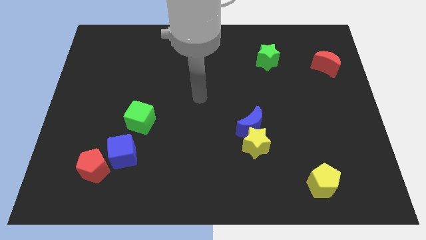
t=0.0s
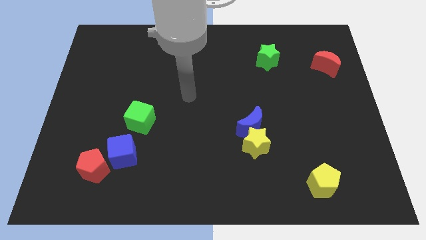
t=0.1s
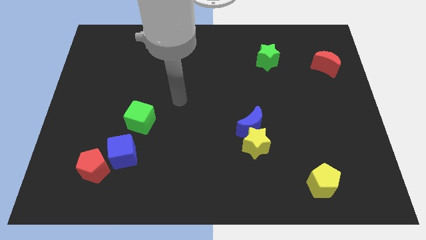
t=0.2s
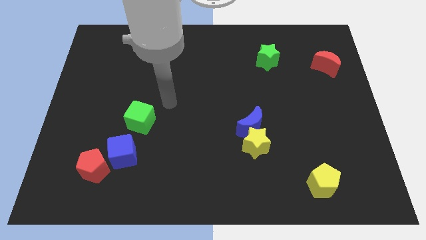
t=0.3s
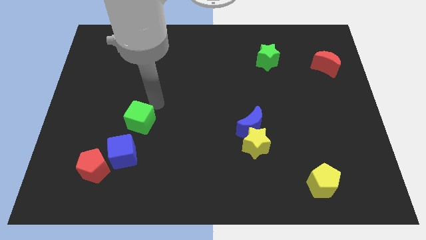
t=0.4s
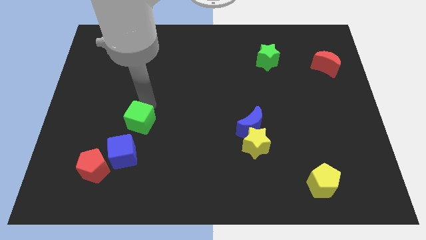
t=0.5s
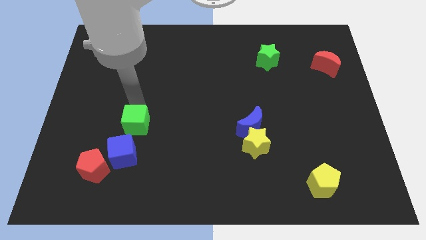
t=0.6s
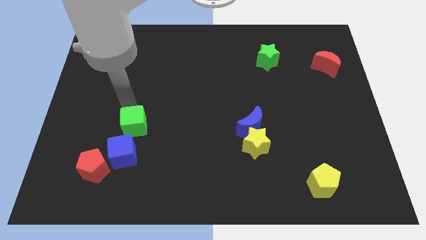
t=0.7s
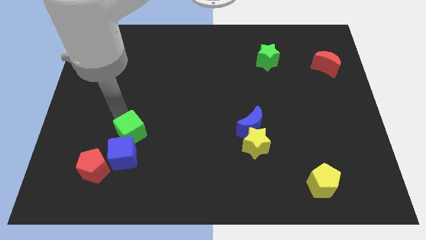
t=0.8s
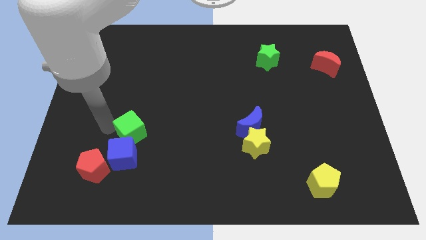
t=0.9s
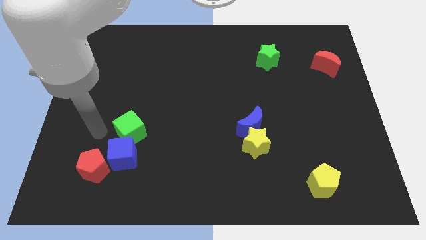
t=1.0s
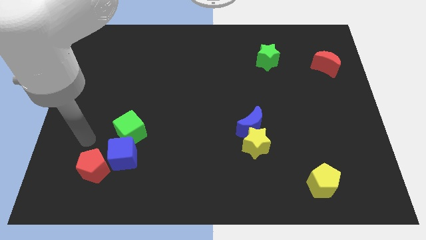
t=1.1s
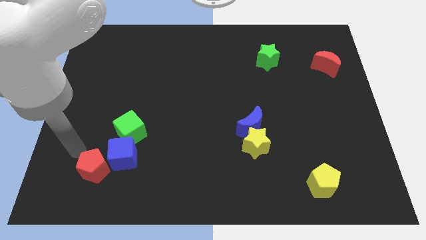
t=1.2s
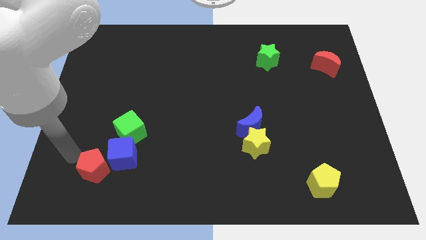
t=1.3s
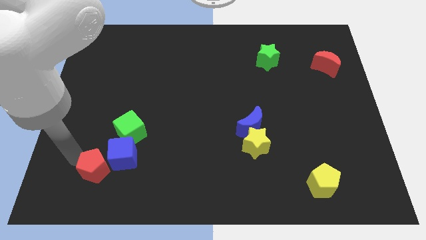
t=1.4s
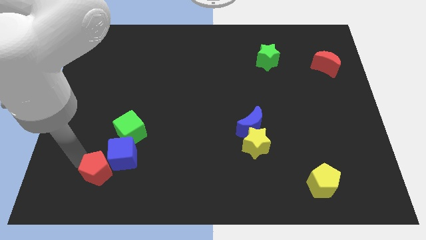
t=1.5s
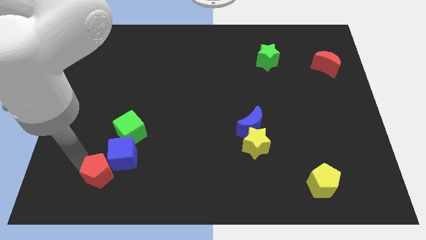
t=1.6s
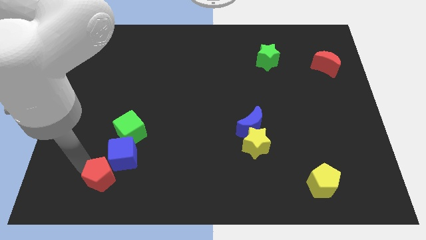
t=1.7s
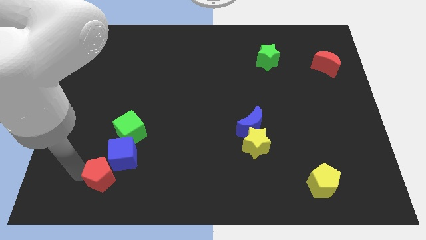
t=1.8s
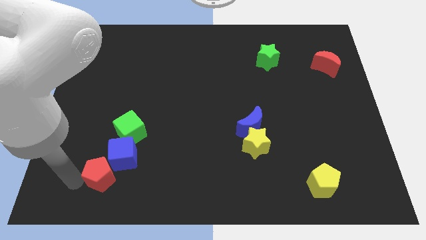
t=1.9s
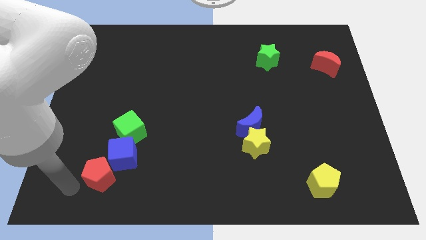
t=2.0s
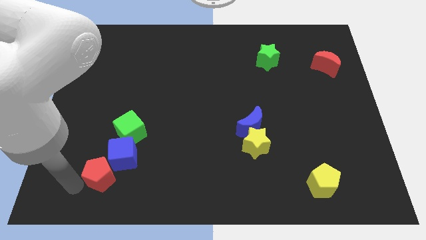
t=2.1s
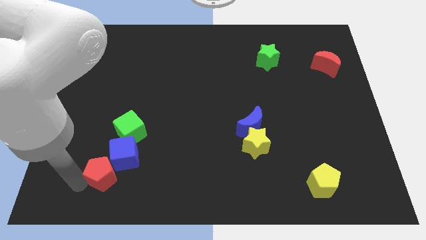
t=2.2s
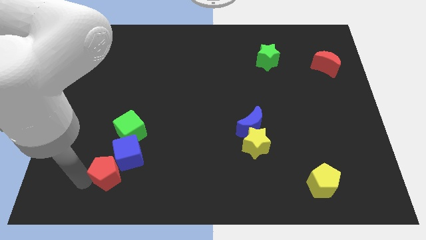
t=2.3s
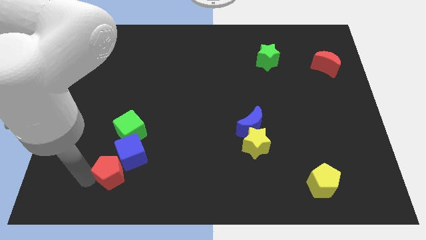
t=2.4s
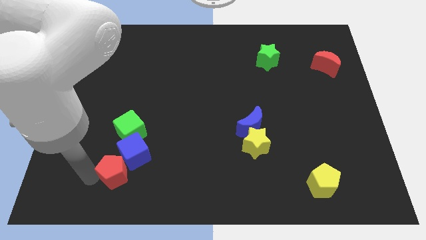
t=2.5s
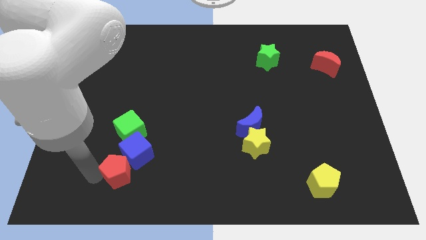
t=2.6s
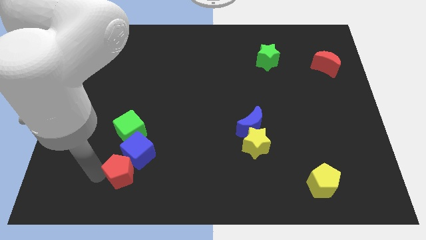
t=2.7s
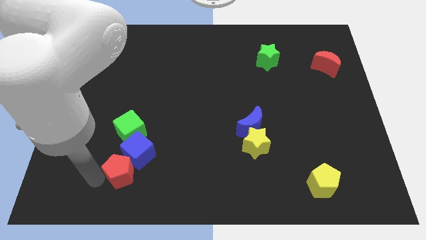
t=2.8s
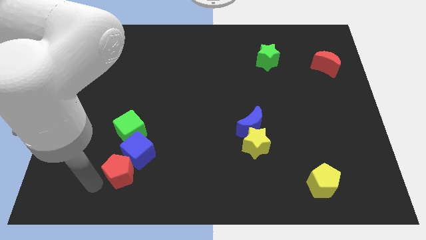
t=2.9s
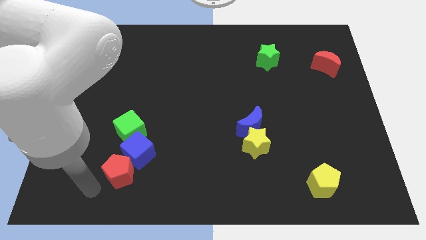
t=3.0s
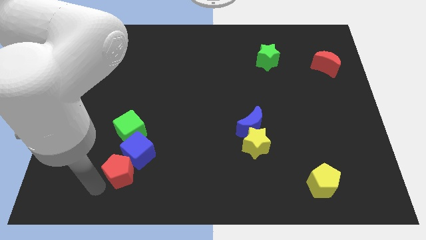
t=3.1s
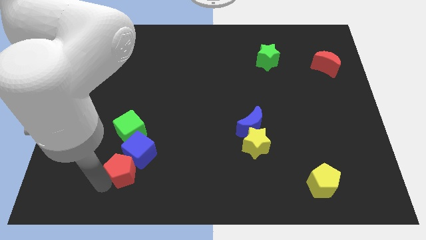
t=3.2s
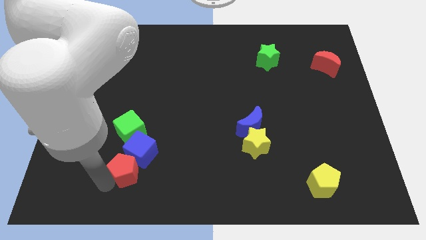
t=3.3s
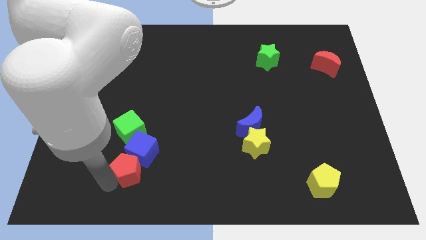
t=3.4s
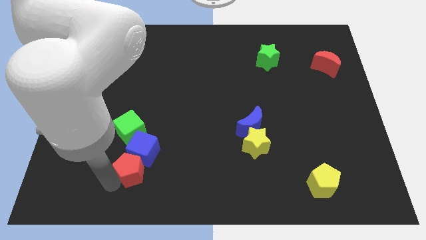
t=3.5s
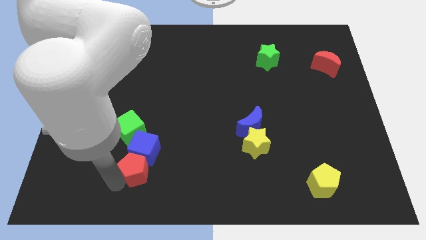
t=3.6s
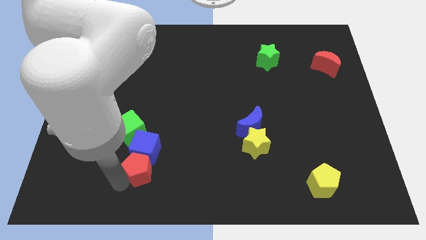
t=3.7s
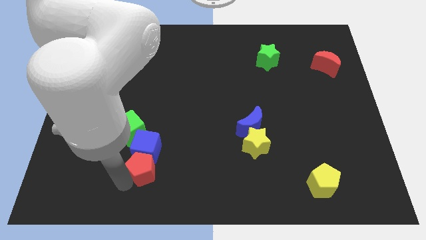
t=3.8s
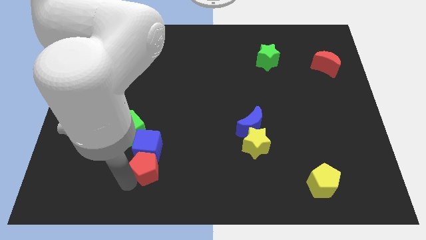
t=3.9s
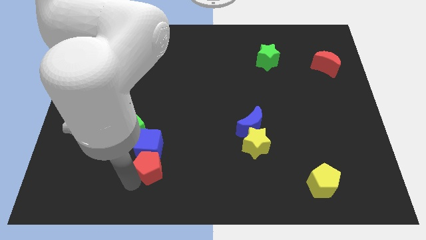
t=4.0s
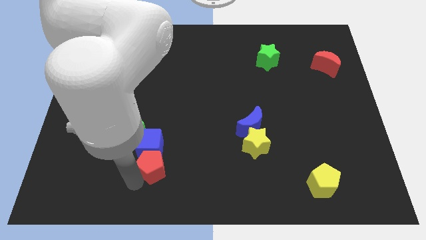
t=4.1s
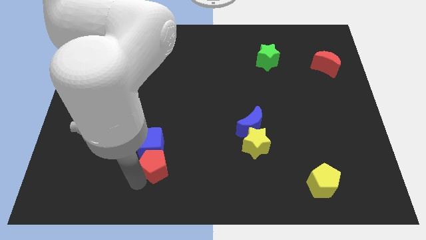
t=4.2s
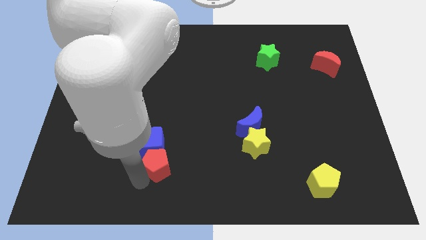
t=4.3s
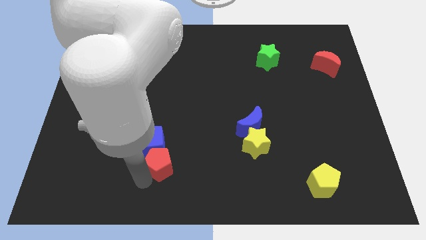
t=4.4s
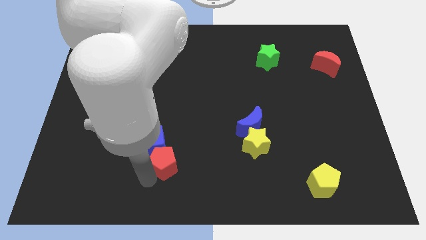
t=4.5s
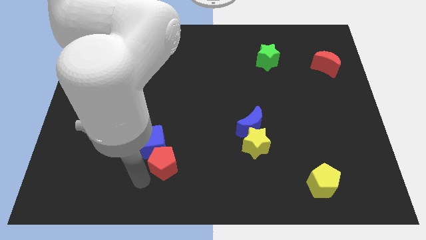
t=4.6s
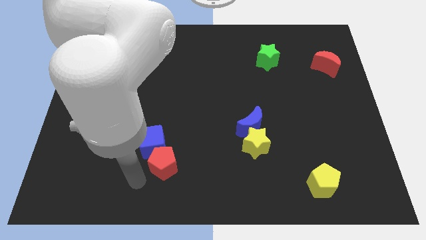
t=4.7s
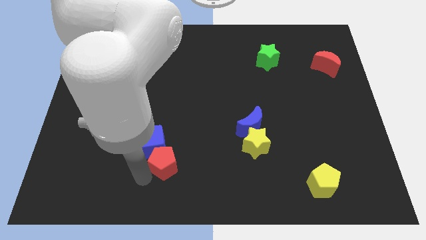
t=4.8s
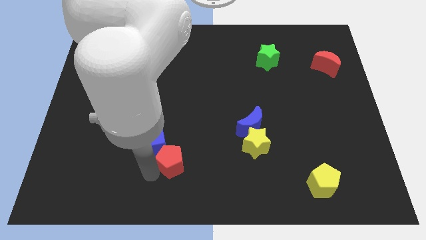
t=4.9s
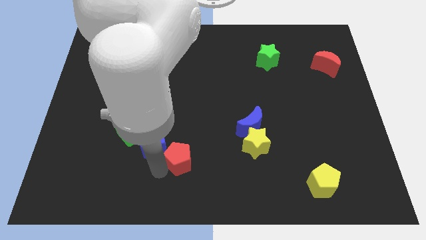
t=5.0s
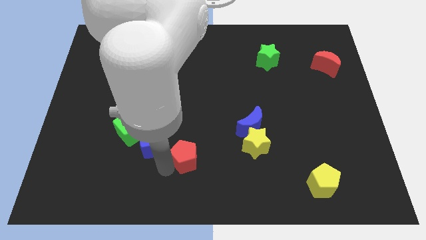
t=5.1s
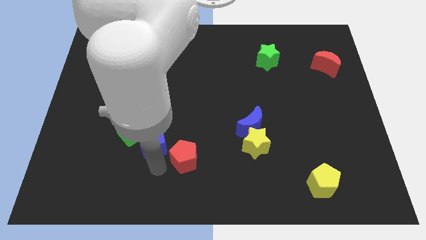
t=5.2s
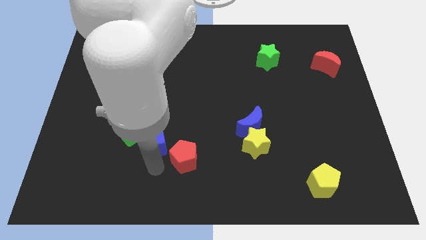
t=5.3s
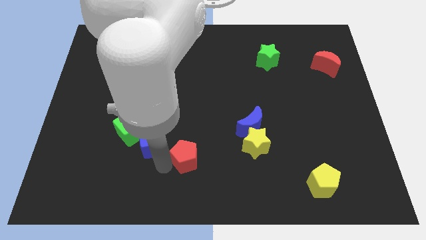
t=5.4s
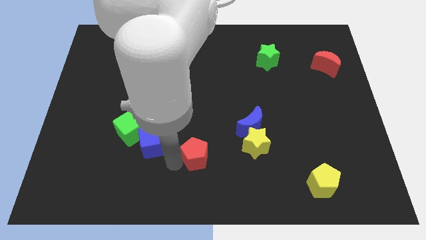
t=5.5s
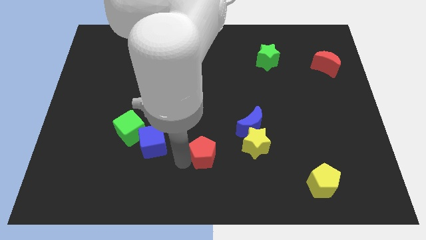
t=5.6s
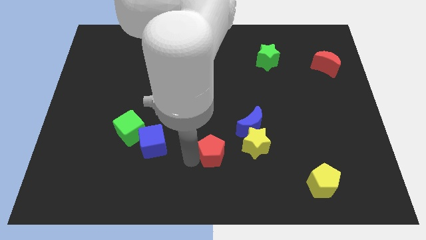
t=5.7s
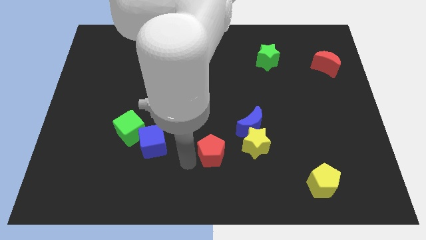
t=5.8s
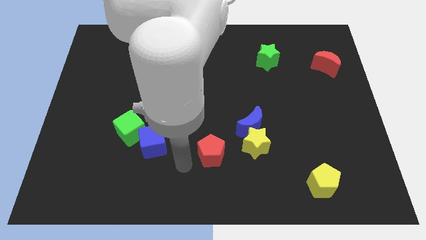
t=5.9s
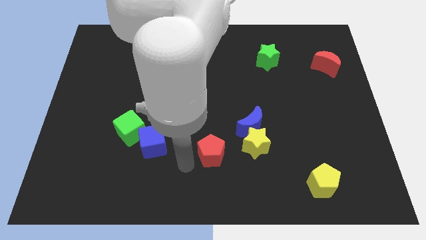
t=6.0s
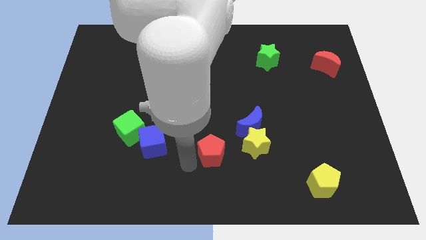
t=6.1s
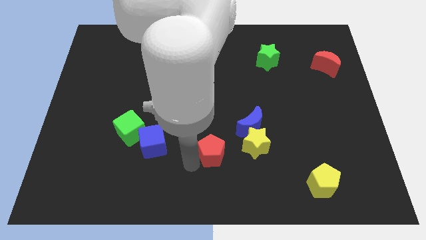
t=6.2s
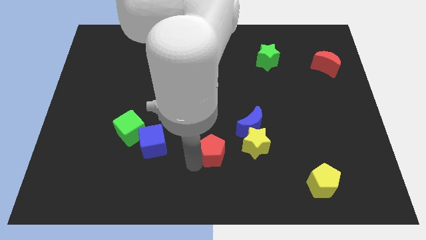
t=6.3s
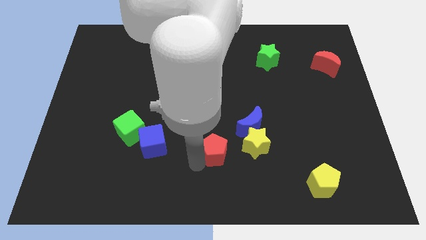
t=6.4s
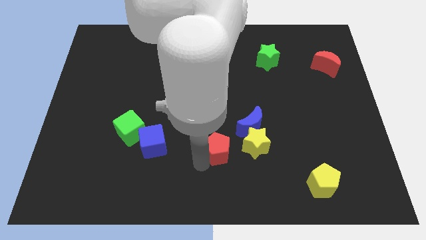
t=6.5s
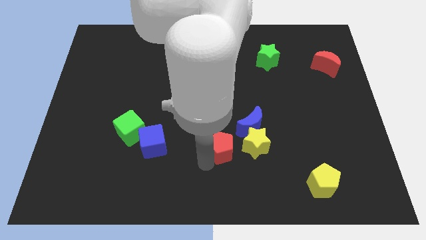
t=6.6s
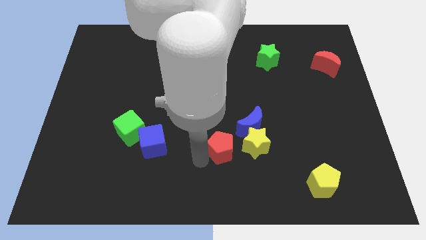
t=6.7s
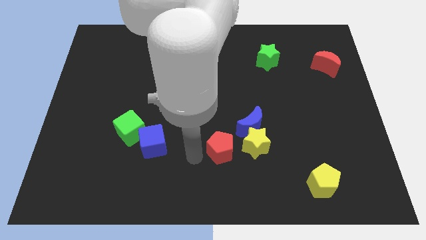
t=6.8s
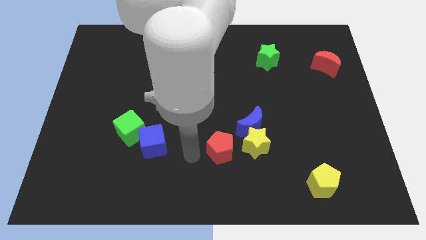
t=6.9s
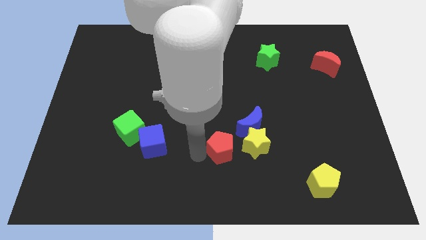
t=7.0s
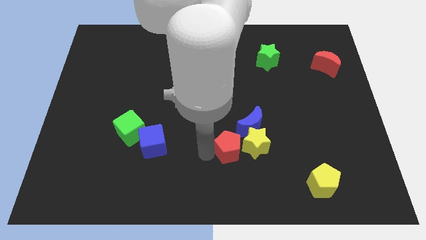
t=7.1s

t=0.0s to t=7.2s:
slide the red pentagon next to the yellow star

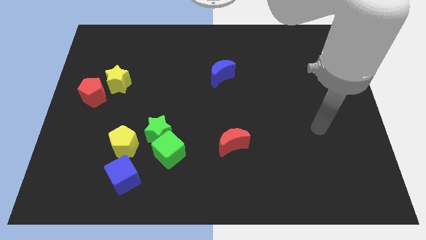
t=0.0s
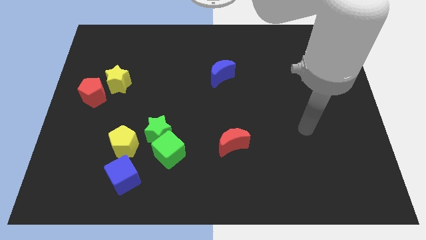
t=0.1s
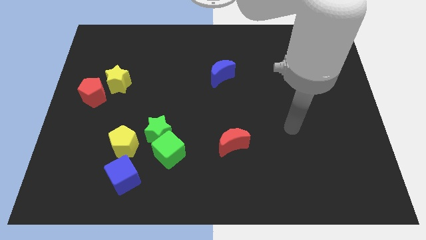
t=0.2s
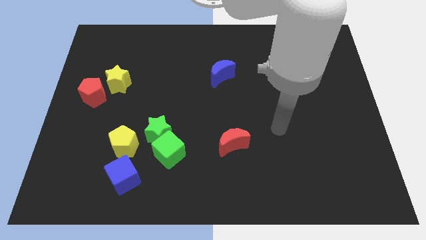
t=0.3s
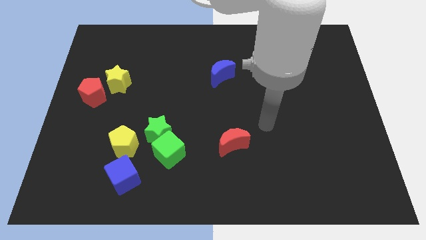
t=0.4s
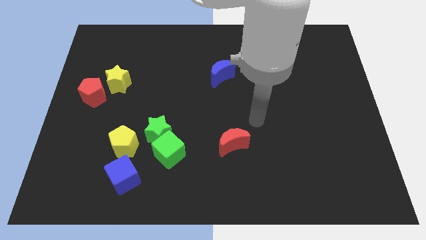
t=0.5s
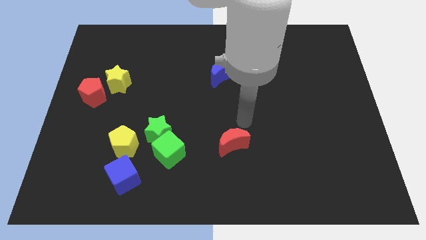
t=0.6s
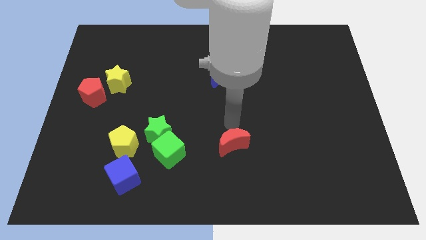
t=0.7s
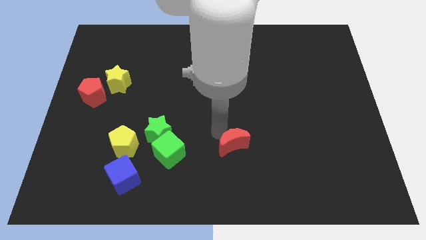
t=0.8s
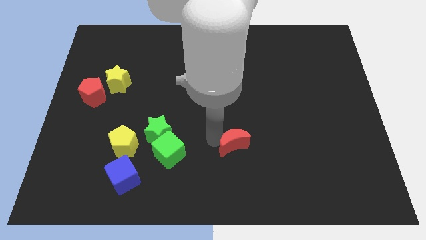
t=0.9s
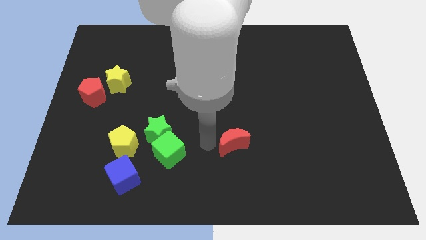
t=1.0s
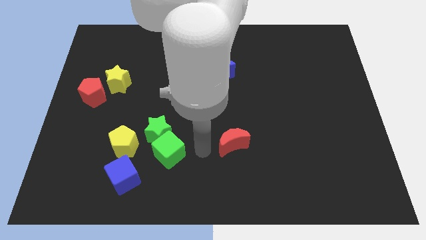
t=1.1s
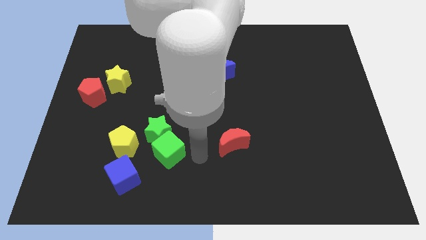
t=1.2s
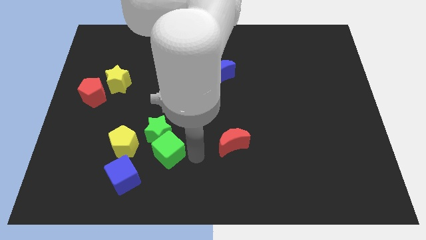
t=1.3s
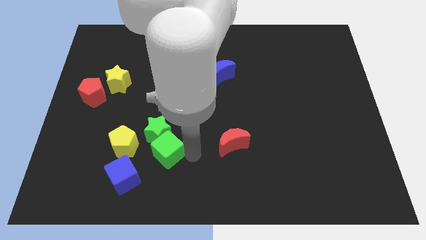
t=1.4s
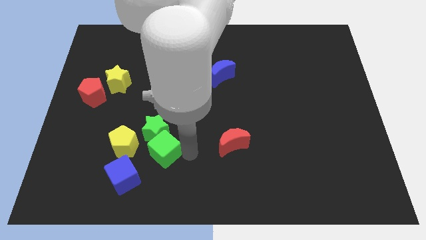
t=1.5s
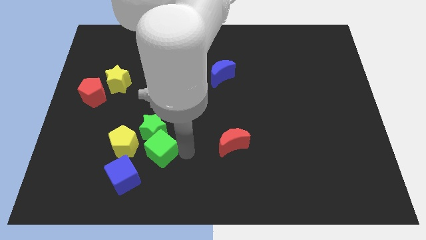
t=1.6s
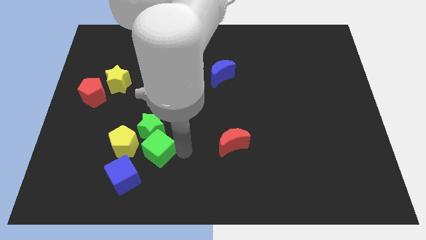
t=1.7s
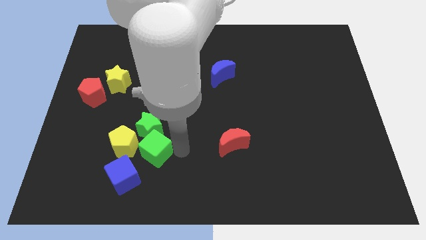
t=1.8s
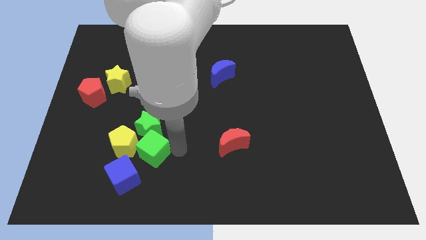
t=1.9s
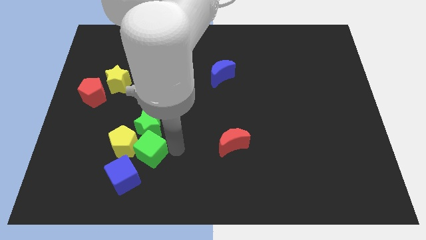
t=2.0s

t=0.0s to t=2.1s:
move the green cube close to the yellow pentagon
